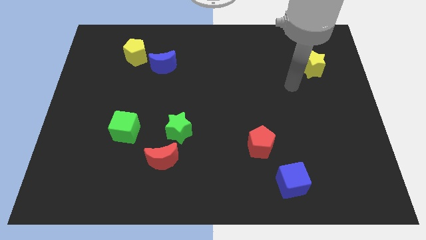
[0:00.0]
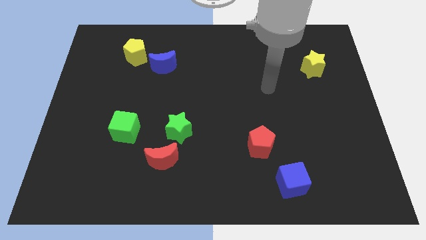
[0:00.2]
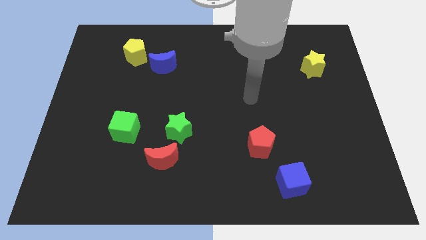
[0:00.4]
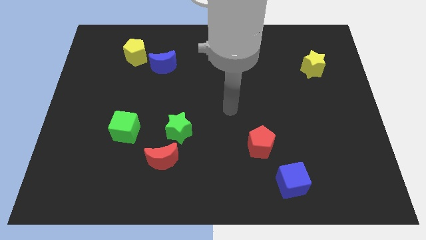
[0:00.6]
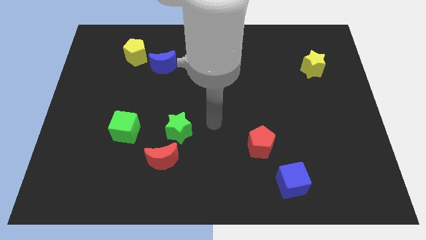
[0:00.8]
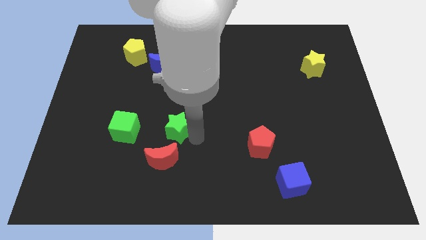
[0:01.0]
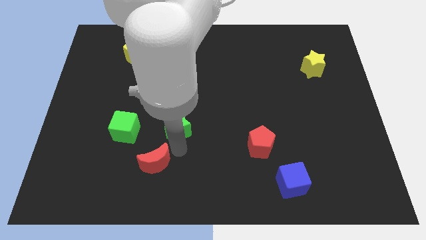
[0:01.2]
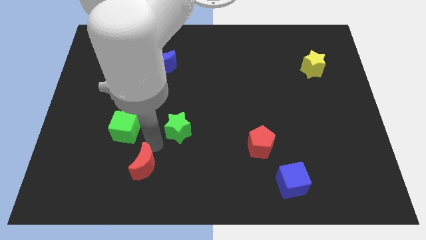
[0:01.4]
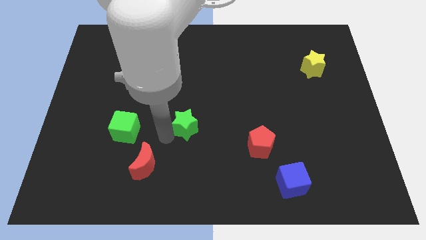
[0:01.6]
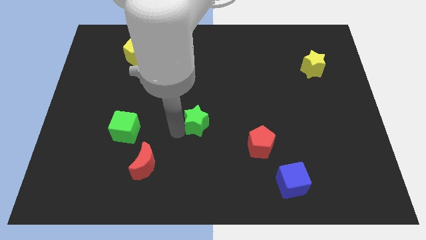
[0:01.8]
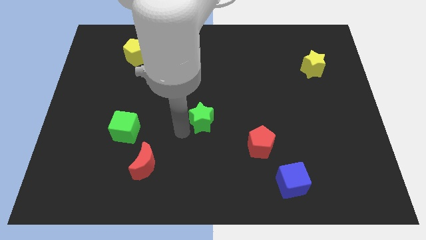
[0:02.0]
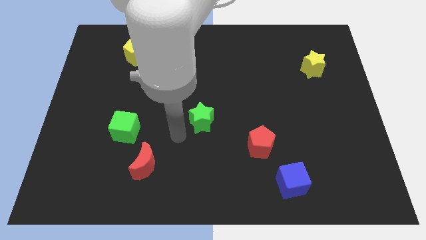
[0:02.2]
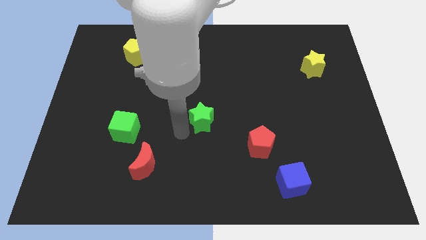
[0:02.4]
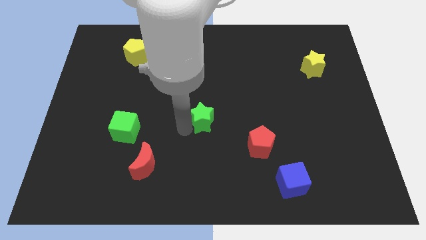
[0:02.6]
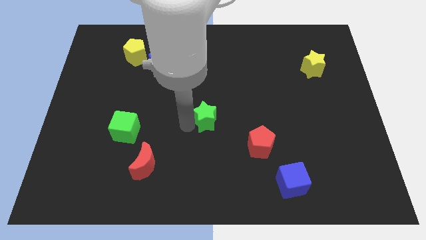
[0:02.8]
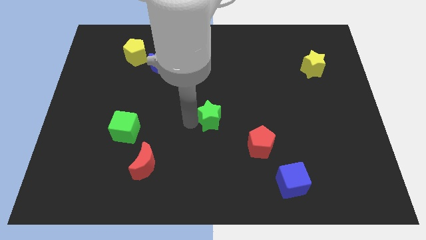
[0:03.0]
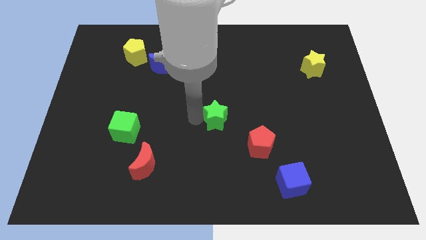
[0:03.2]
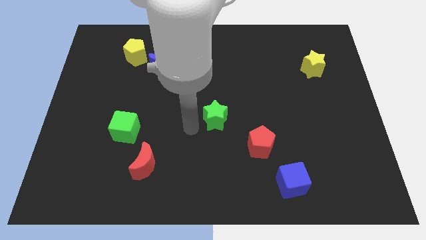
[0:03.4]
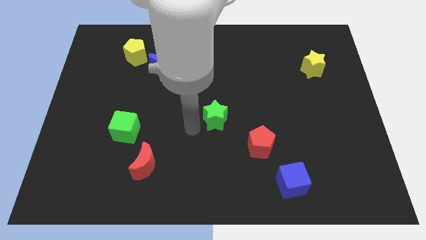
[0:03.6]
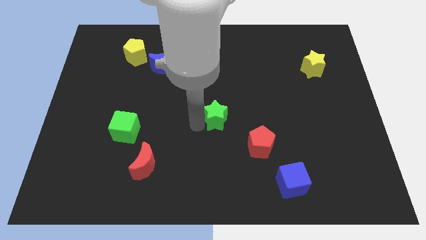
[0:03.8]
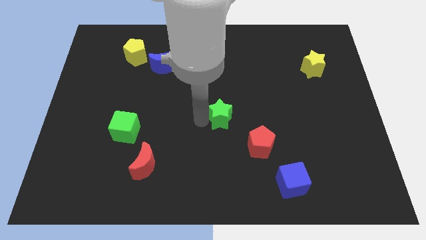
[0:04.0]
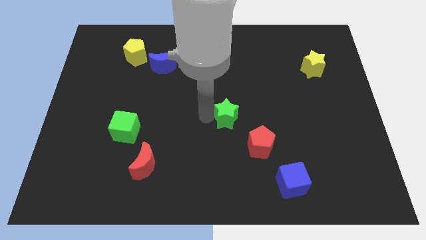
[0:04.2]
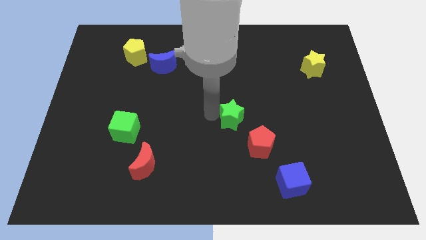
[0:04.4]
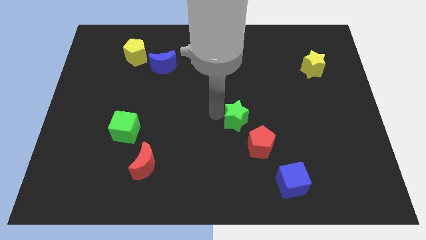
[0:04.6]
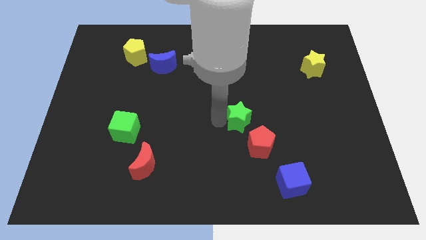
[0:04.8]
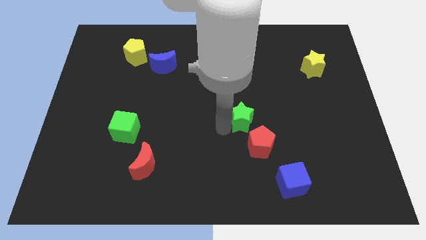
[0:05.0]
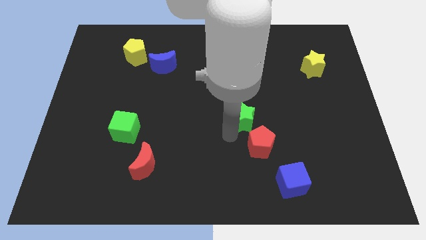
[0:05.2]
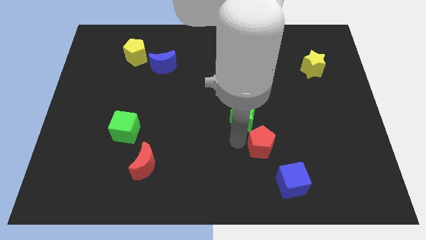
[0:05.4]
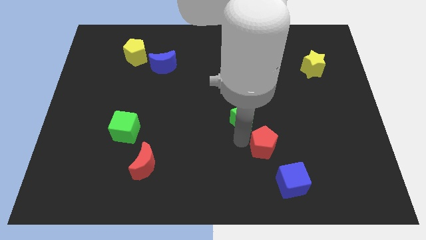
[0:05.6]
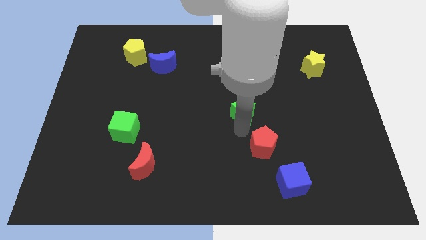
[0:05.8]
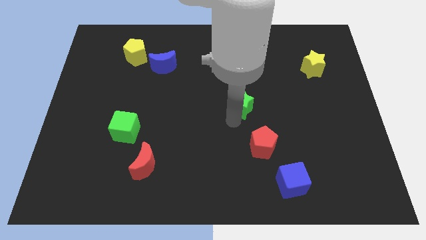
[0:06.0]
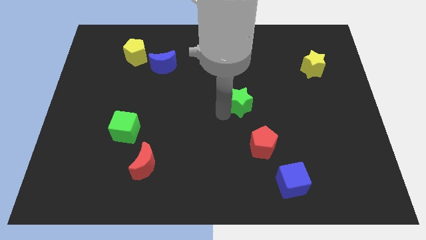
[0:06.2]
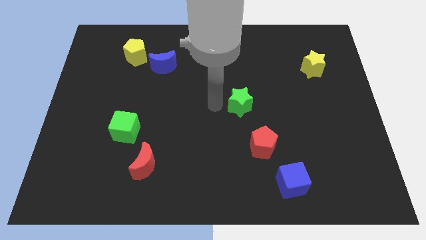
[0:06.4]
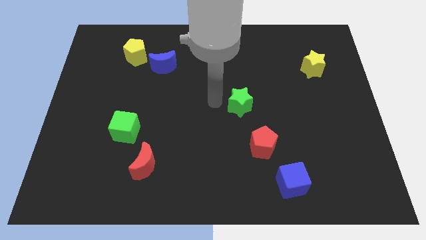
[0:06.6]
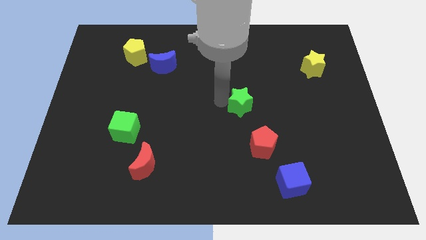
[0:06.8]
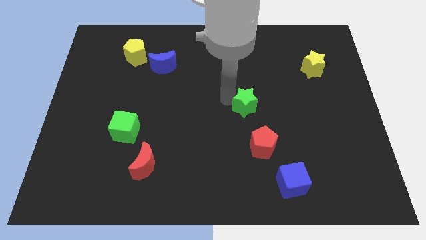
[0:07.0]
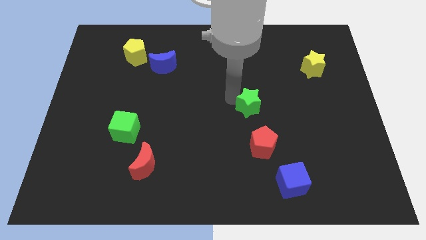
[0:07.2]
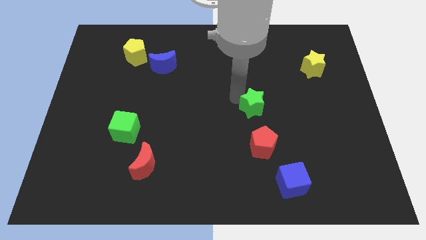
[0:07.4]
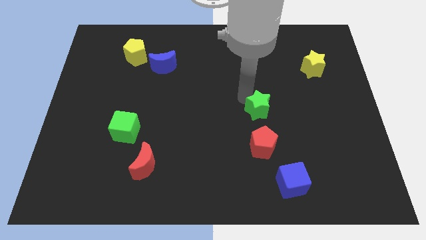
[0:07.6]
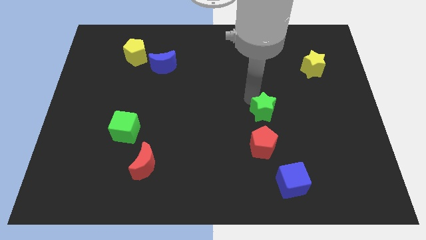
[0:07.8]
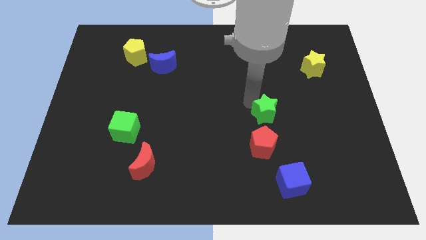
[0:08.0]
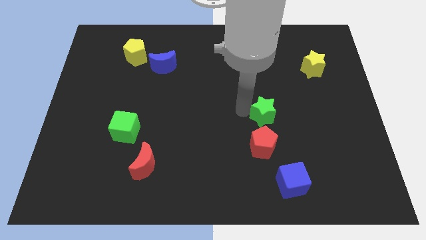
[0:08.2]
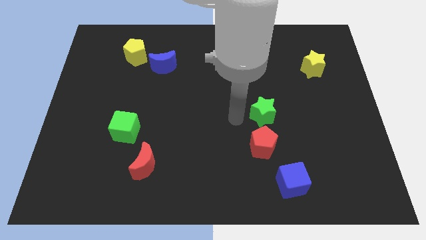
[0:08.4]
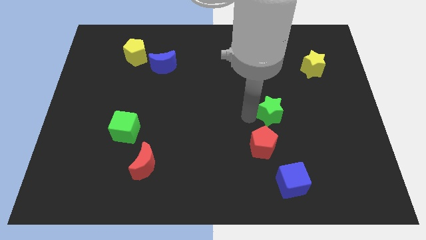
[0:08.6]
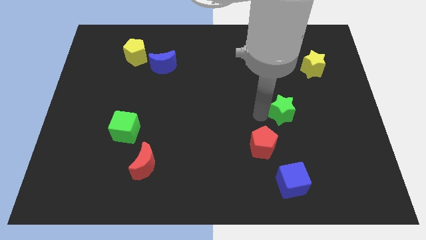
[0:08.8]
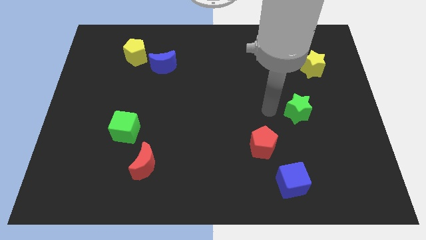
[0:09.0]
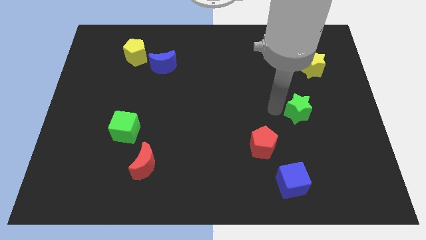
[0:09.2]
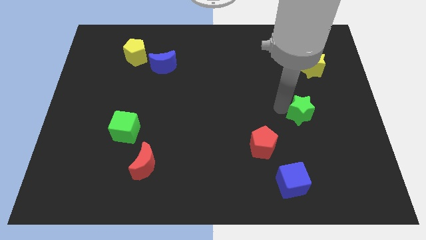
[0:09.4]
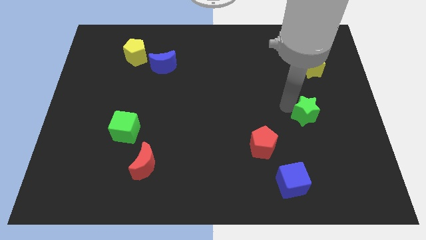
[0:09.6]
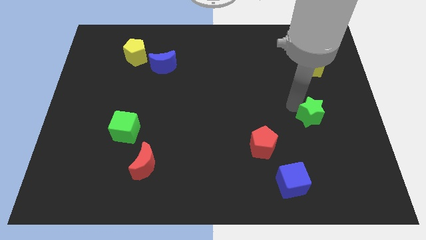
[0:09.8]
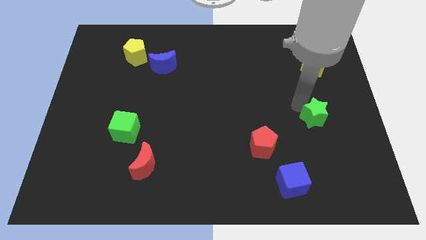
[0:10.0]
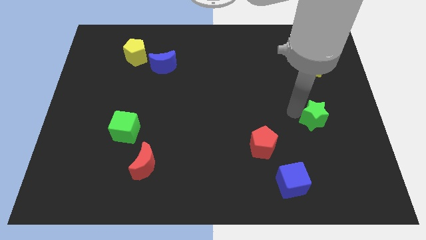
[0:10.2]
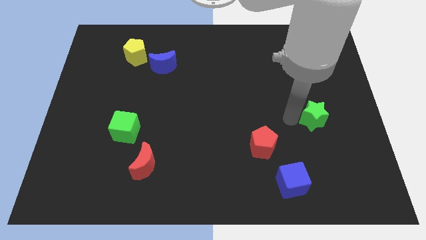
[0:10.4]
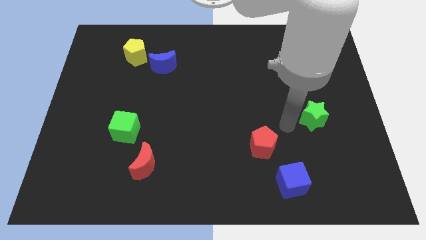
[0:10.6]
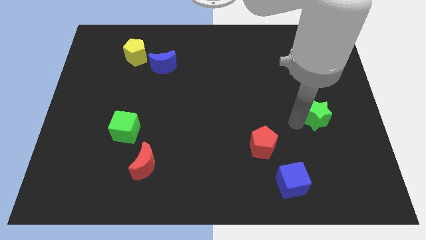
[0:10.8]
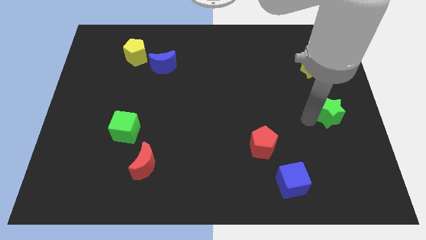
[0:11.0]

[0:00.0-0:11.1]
put the green star to the center right

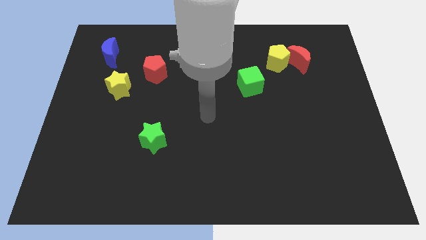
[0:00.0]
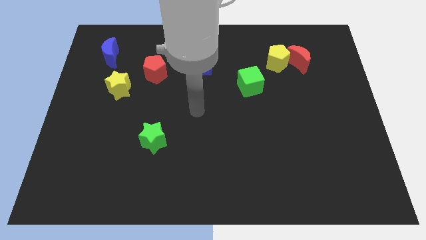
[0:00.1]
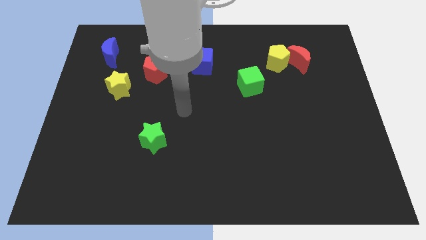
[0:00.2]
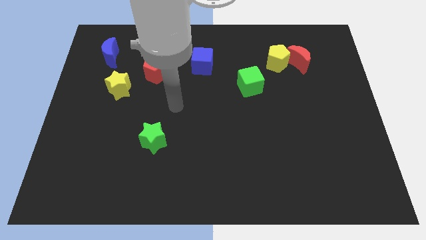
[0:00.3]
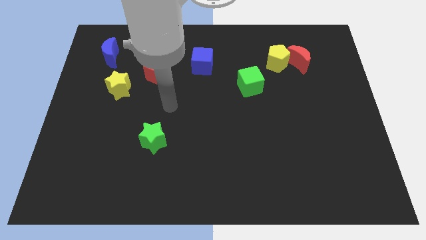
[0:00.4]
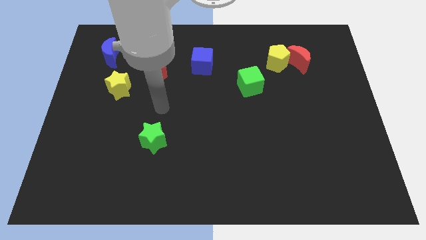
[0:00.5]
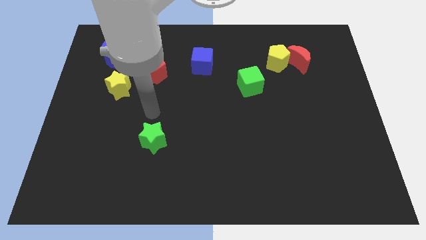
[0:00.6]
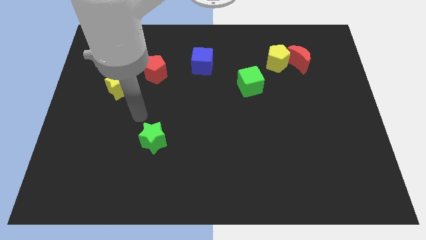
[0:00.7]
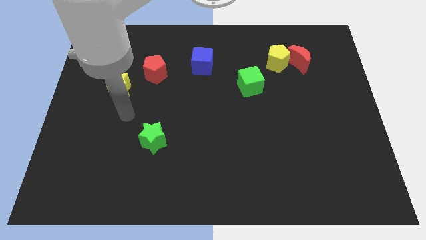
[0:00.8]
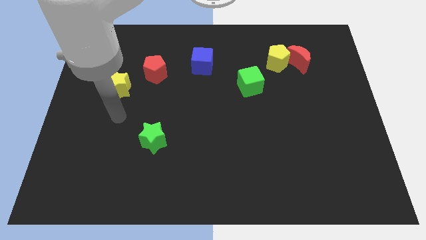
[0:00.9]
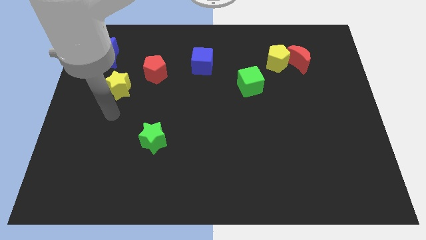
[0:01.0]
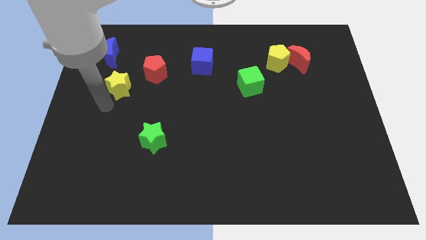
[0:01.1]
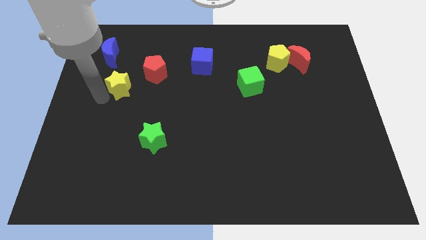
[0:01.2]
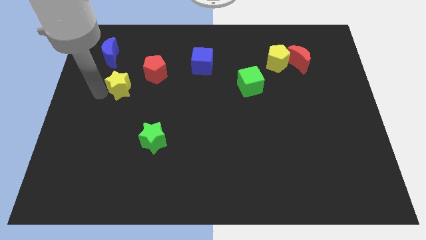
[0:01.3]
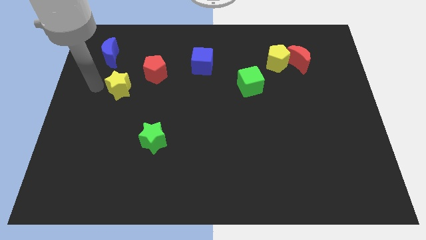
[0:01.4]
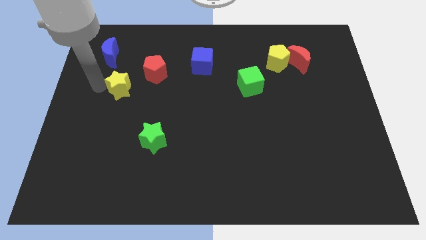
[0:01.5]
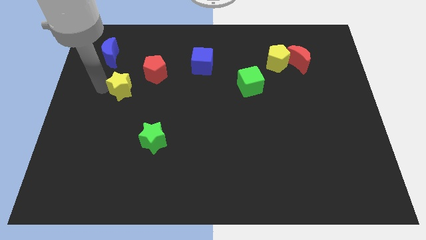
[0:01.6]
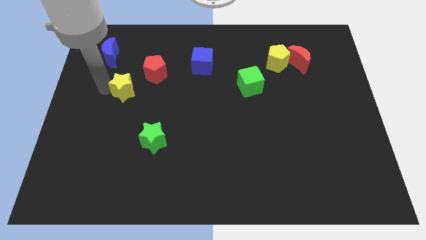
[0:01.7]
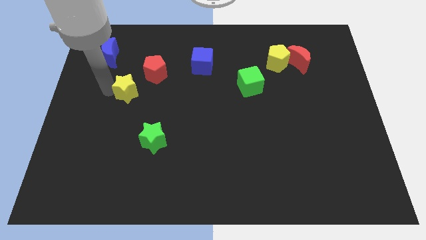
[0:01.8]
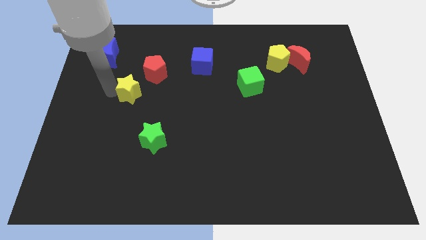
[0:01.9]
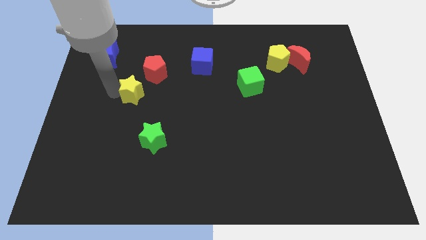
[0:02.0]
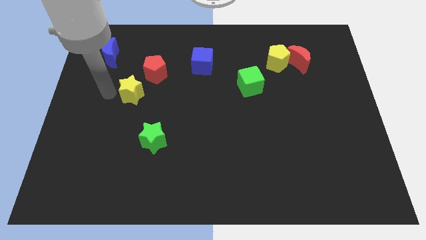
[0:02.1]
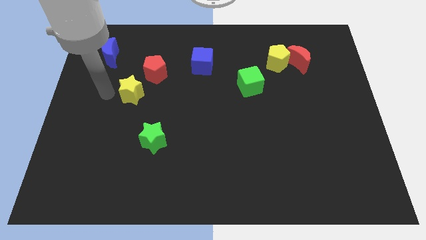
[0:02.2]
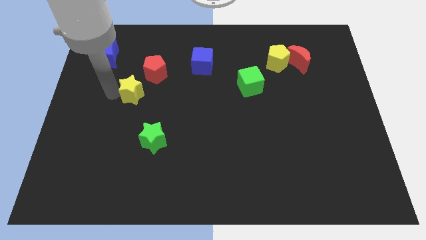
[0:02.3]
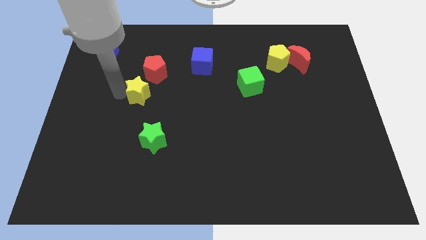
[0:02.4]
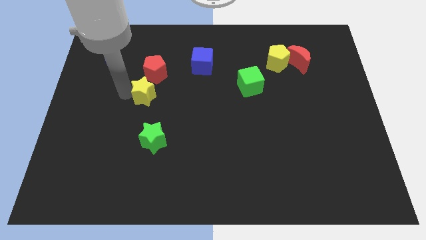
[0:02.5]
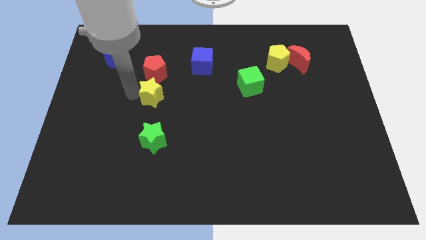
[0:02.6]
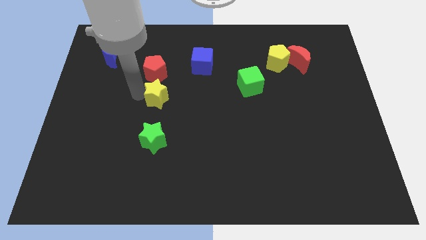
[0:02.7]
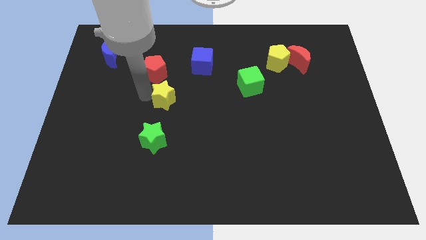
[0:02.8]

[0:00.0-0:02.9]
move the yellow star to the center of the board
